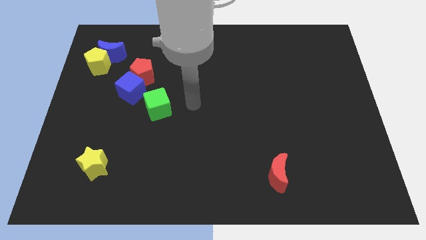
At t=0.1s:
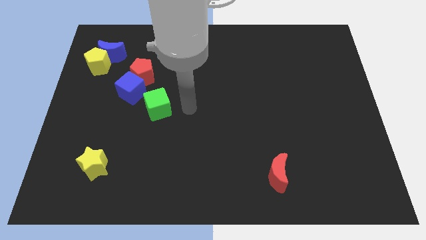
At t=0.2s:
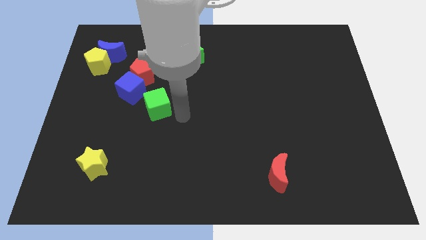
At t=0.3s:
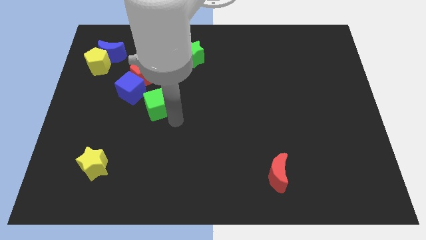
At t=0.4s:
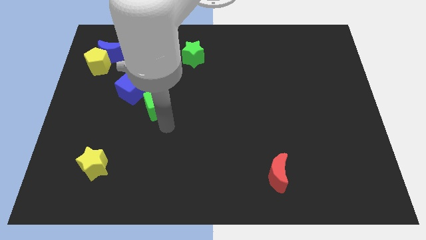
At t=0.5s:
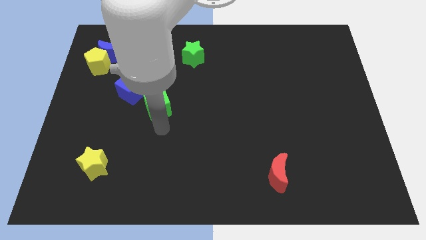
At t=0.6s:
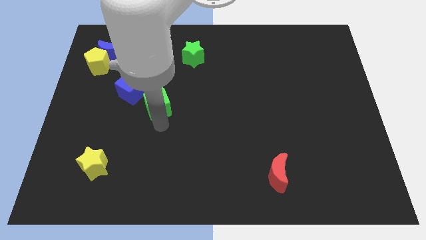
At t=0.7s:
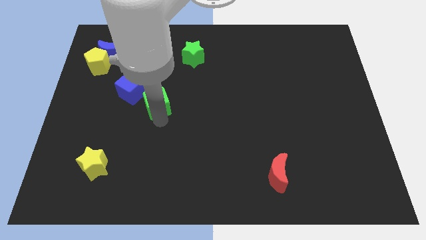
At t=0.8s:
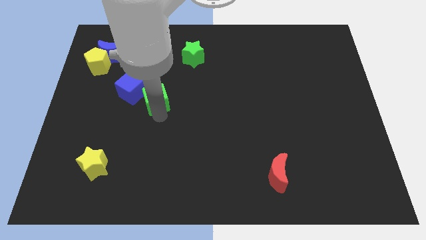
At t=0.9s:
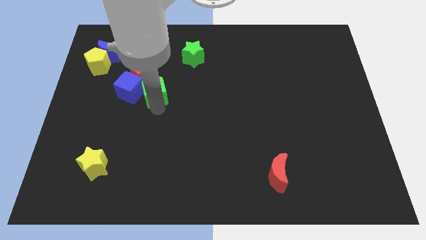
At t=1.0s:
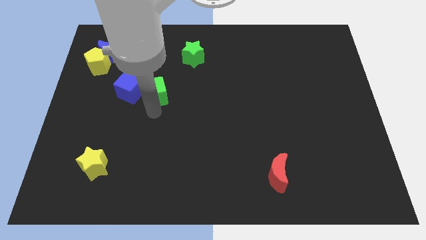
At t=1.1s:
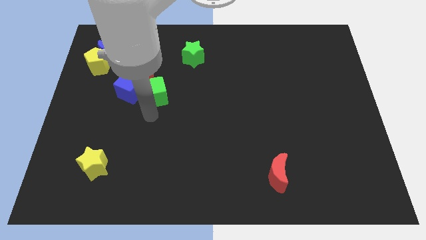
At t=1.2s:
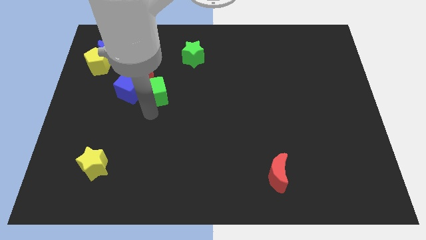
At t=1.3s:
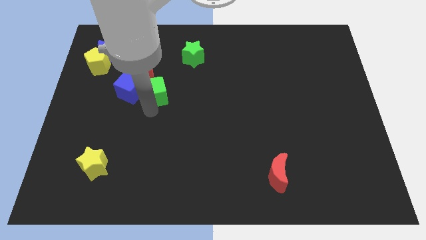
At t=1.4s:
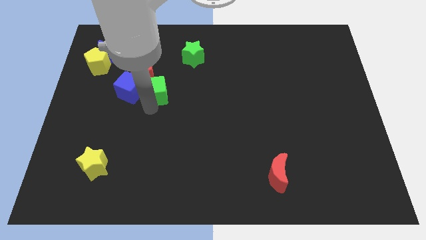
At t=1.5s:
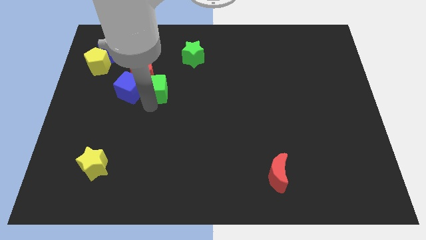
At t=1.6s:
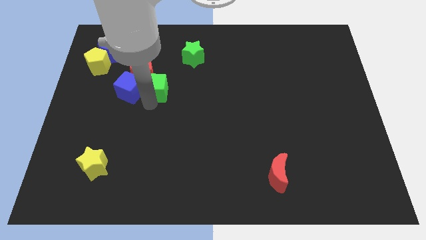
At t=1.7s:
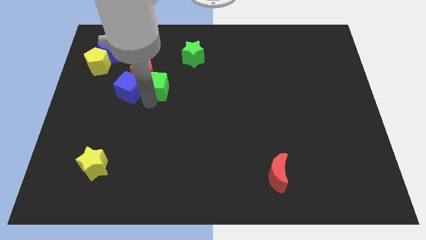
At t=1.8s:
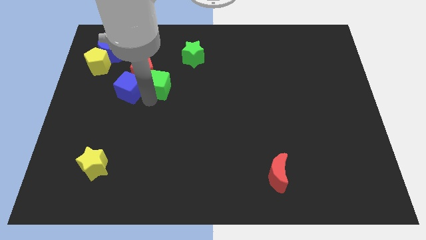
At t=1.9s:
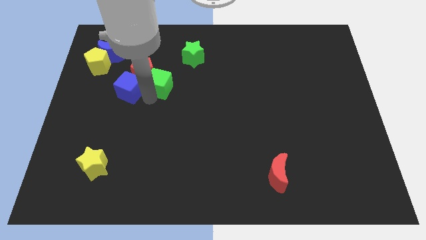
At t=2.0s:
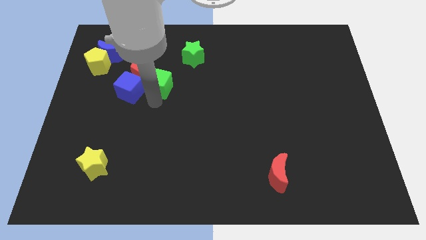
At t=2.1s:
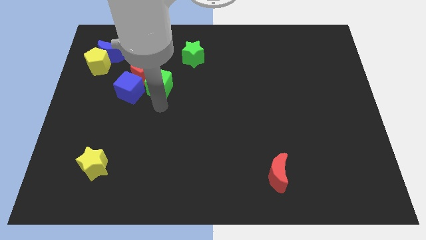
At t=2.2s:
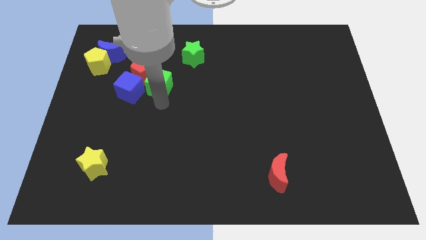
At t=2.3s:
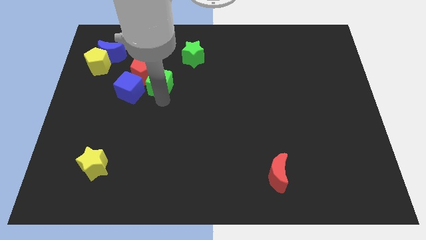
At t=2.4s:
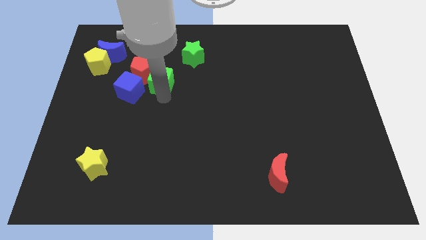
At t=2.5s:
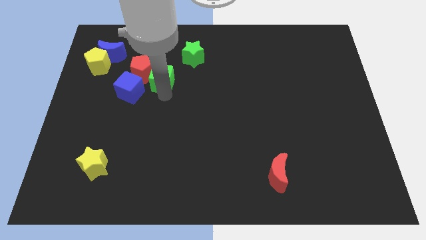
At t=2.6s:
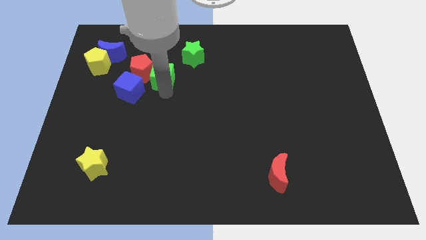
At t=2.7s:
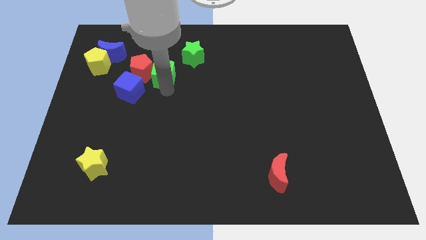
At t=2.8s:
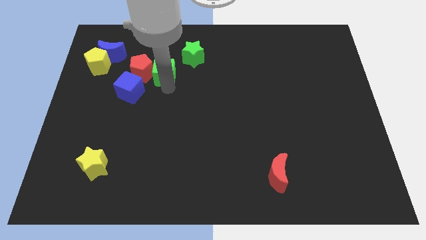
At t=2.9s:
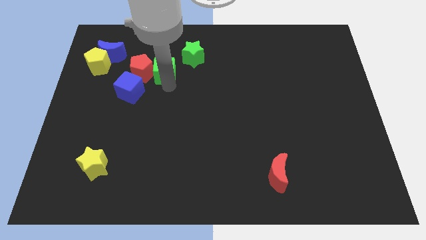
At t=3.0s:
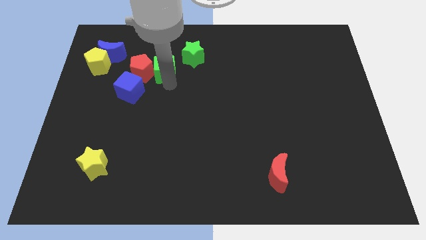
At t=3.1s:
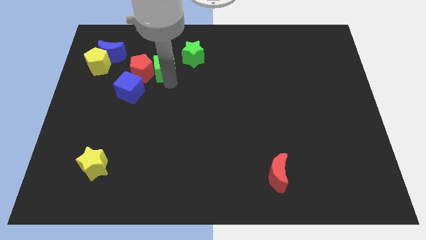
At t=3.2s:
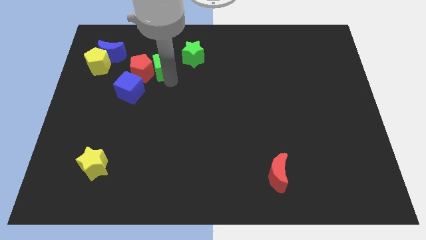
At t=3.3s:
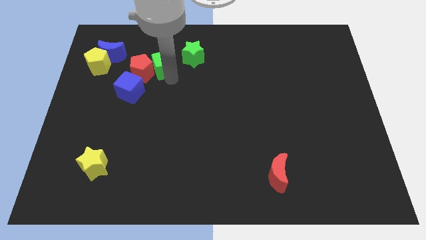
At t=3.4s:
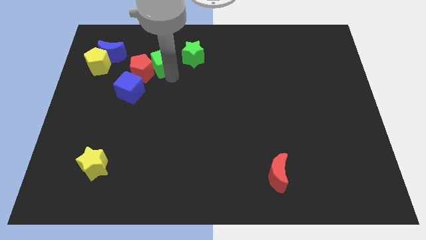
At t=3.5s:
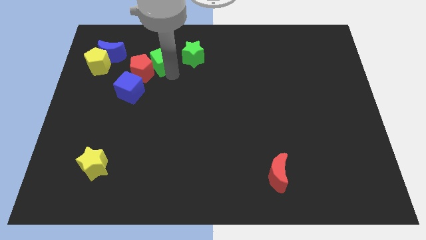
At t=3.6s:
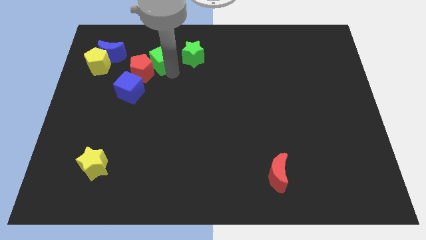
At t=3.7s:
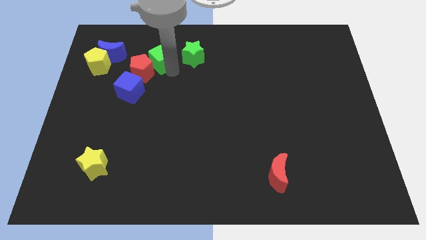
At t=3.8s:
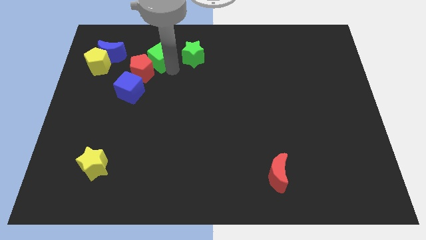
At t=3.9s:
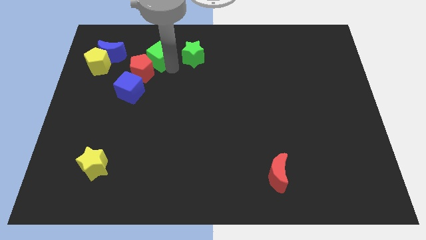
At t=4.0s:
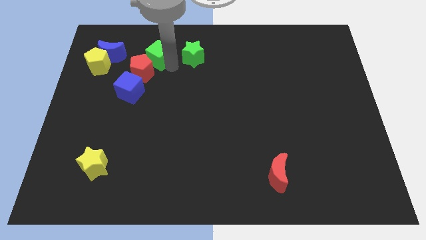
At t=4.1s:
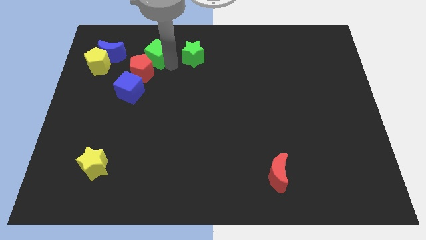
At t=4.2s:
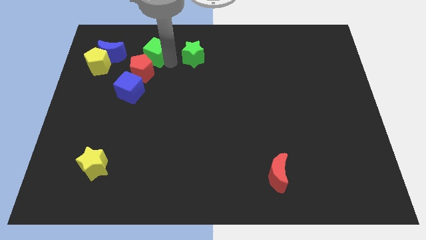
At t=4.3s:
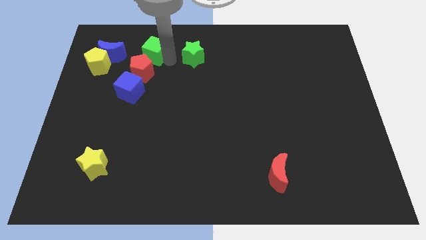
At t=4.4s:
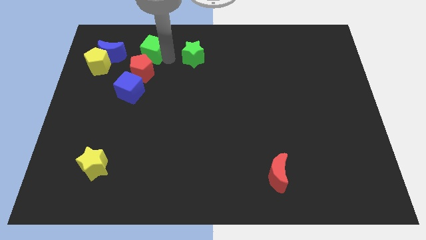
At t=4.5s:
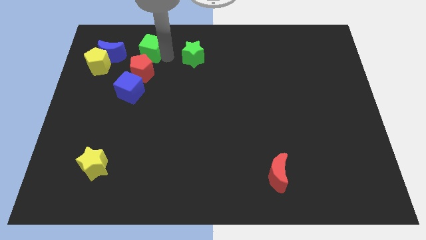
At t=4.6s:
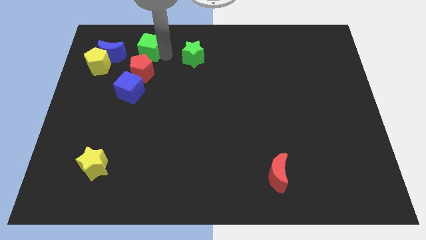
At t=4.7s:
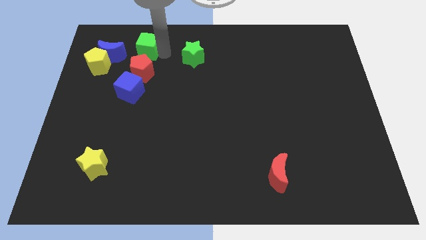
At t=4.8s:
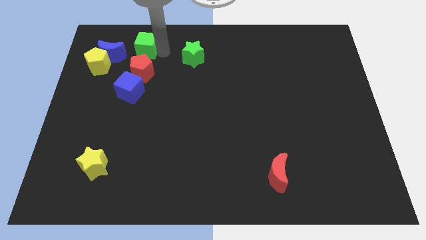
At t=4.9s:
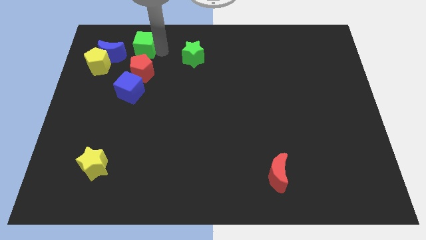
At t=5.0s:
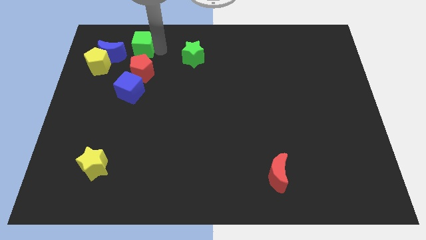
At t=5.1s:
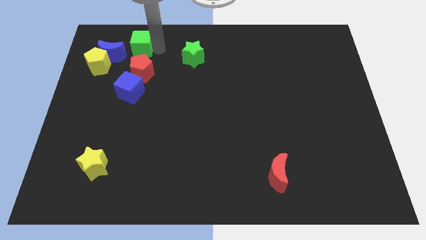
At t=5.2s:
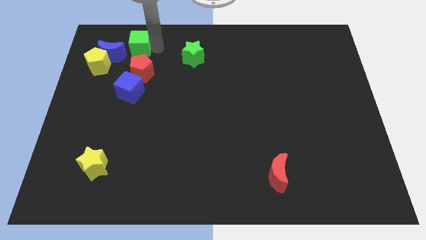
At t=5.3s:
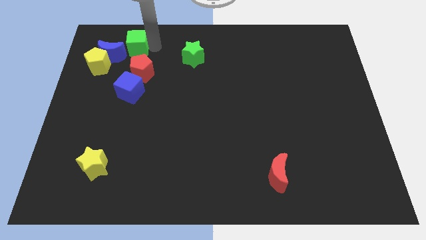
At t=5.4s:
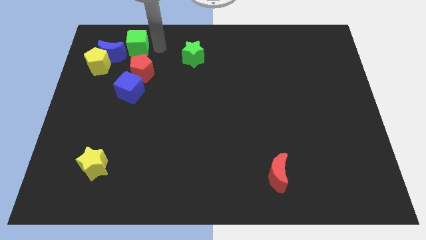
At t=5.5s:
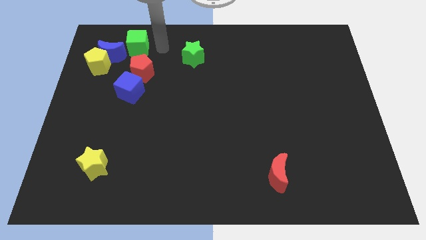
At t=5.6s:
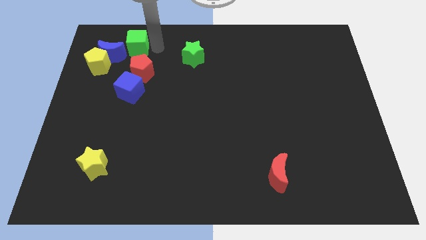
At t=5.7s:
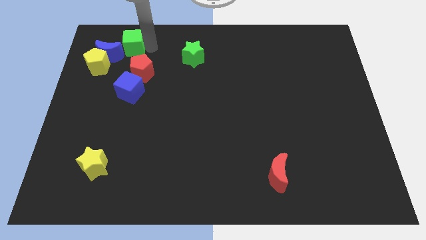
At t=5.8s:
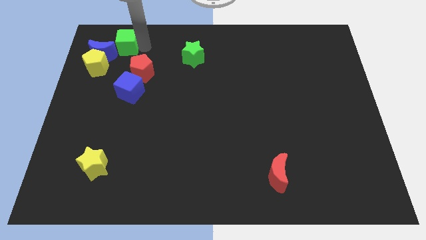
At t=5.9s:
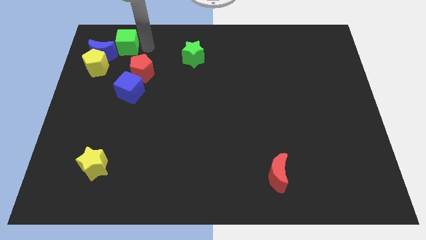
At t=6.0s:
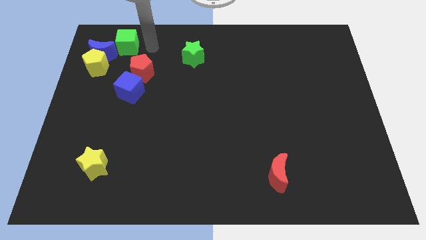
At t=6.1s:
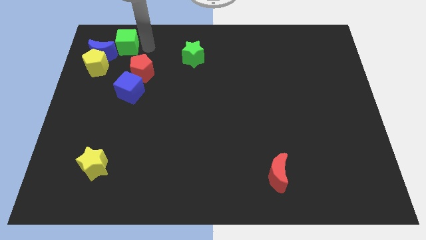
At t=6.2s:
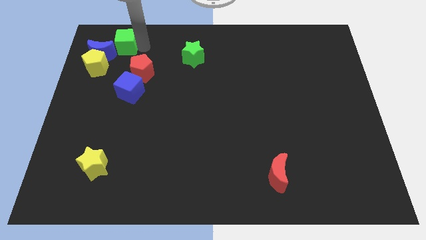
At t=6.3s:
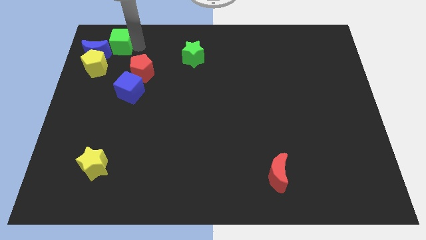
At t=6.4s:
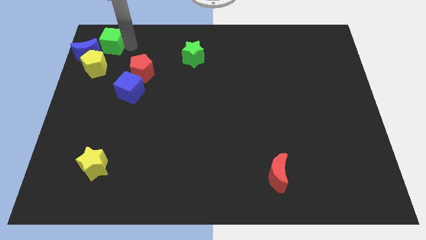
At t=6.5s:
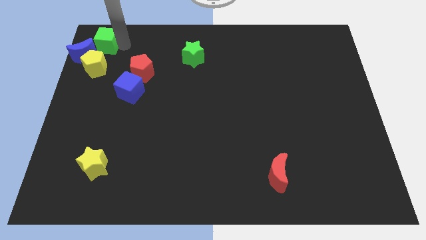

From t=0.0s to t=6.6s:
put the green cube to the top left of the board
